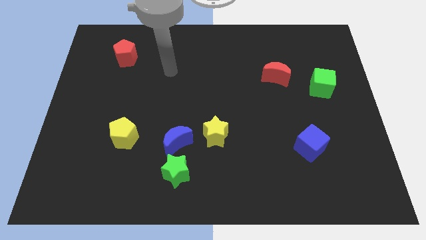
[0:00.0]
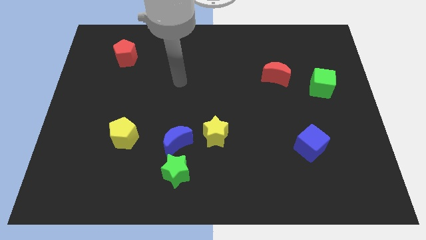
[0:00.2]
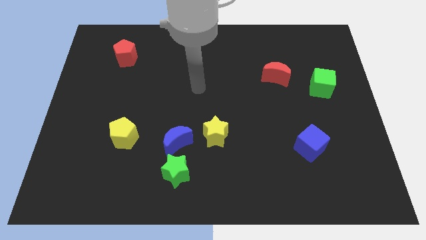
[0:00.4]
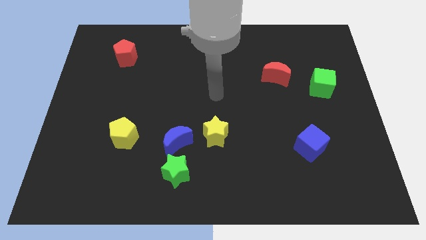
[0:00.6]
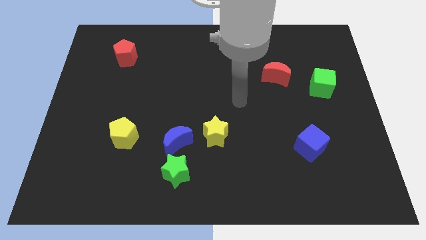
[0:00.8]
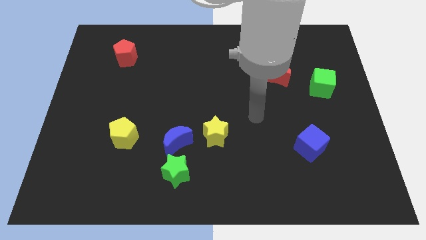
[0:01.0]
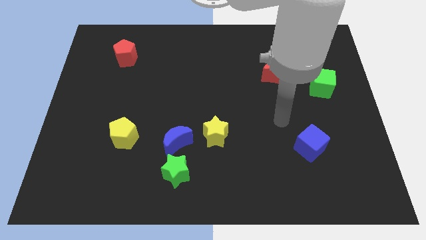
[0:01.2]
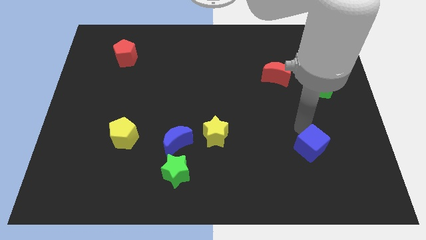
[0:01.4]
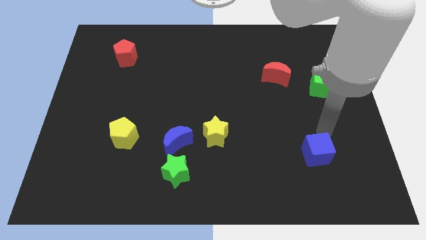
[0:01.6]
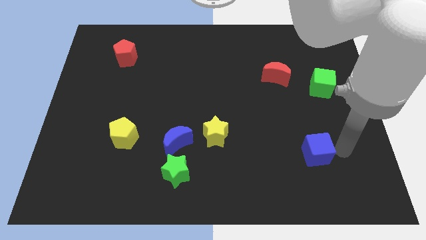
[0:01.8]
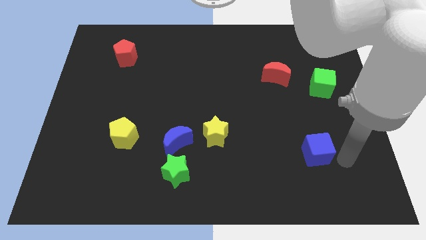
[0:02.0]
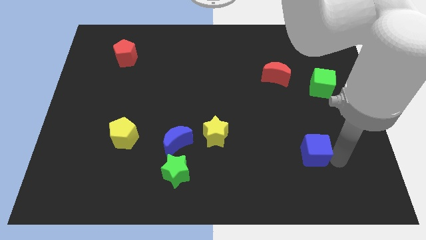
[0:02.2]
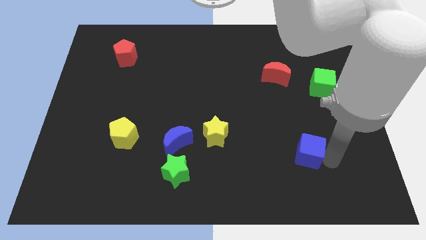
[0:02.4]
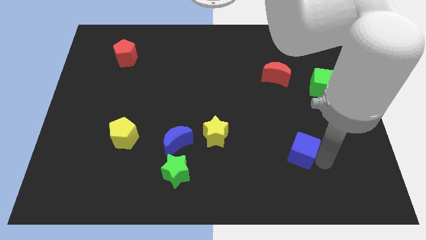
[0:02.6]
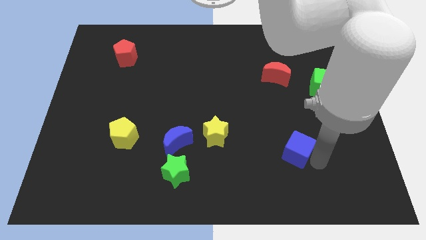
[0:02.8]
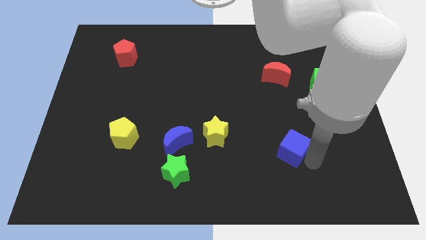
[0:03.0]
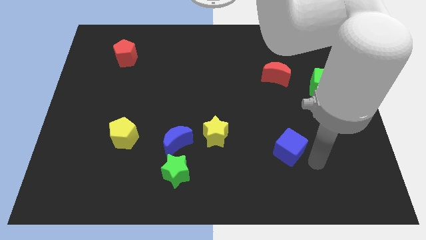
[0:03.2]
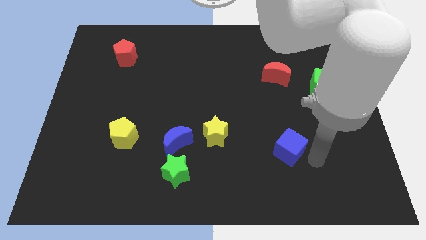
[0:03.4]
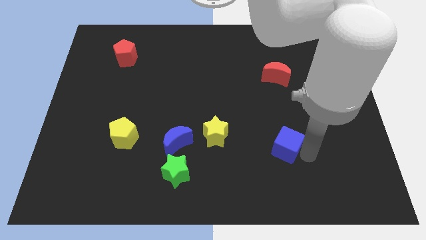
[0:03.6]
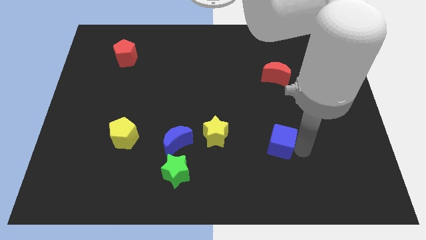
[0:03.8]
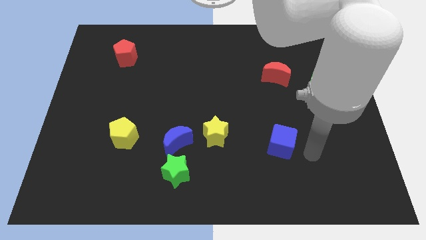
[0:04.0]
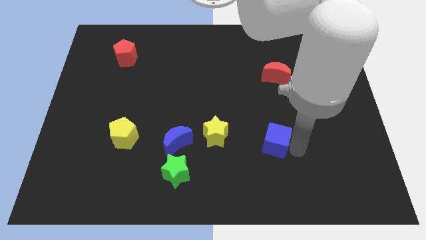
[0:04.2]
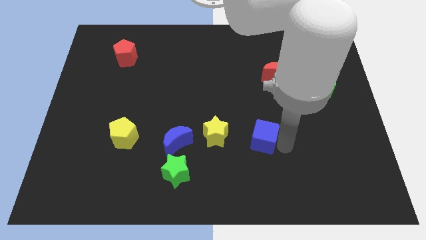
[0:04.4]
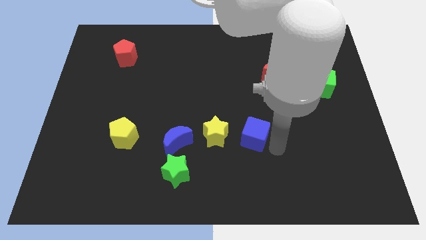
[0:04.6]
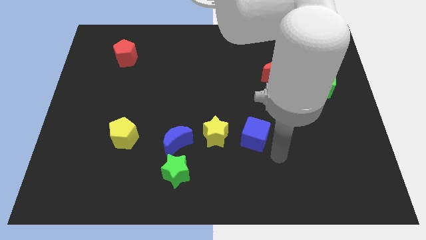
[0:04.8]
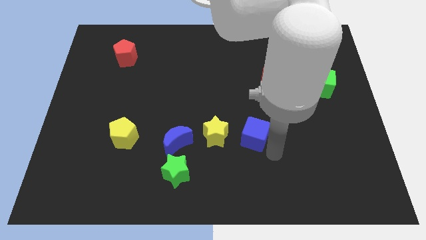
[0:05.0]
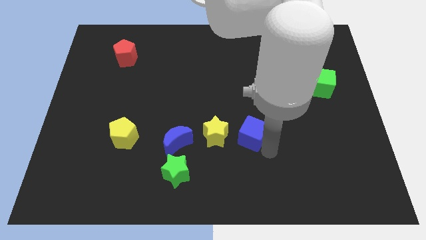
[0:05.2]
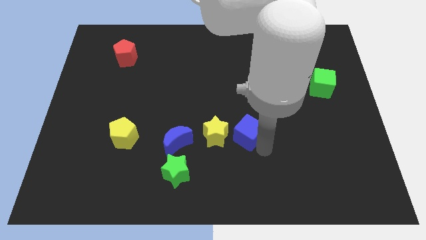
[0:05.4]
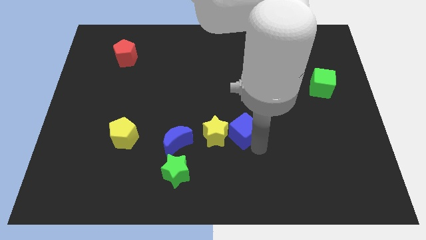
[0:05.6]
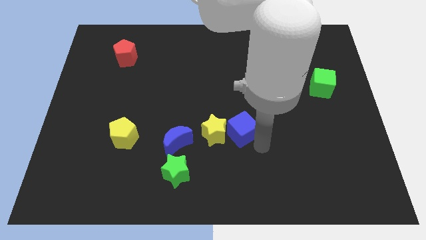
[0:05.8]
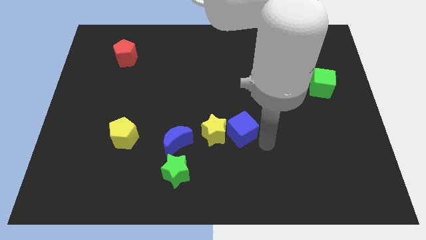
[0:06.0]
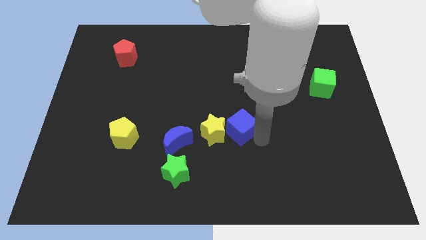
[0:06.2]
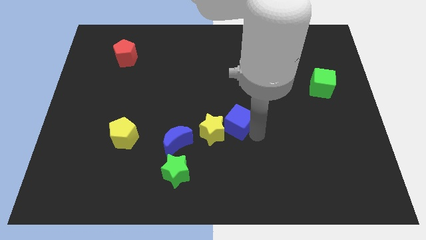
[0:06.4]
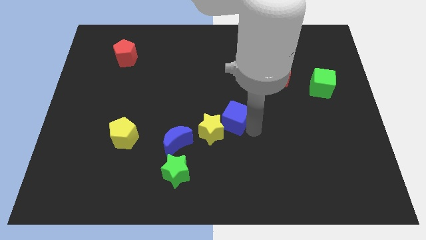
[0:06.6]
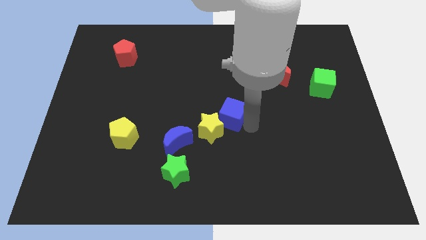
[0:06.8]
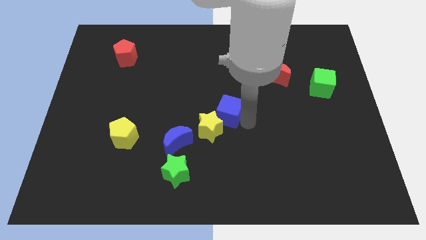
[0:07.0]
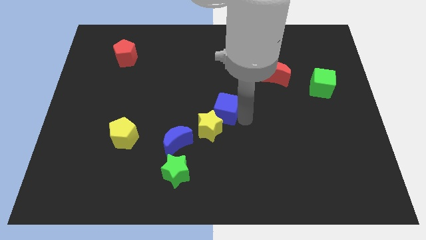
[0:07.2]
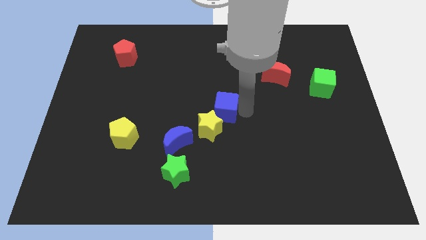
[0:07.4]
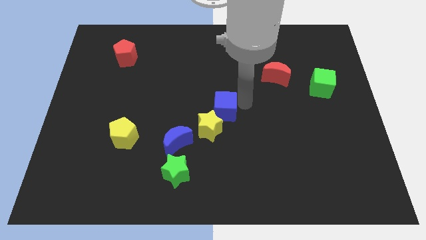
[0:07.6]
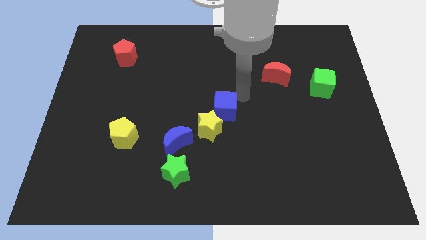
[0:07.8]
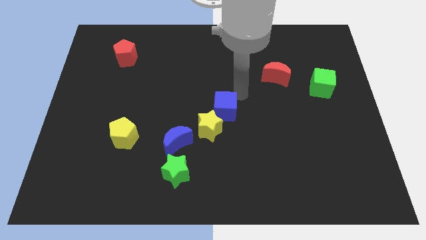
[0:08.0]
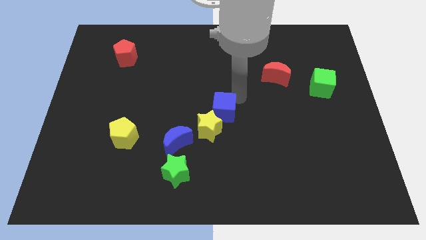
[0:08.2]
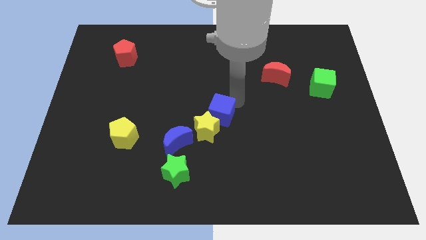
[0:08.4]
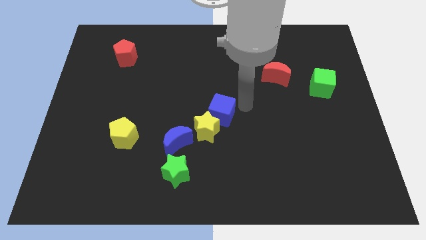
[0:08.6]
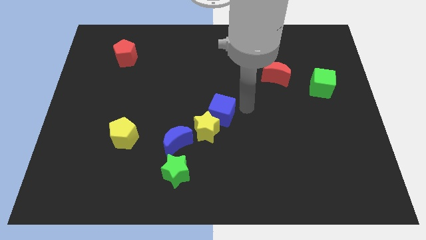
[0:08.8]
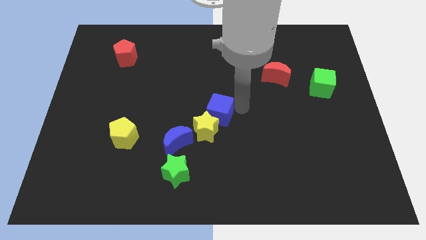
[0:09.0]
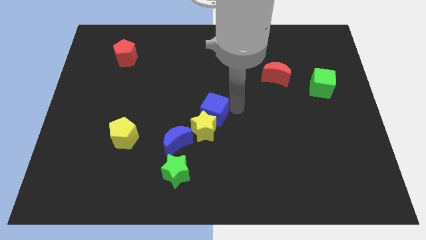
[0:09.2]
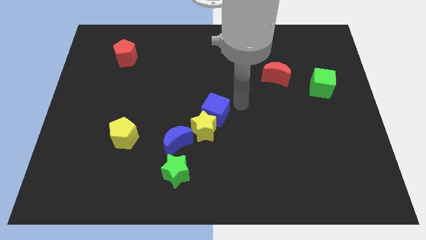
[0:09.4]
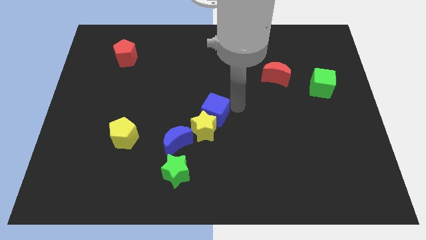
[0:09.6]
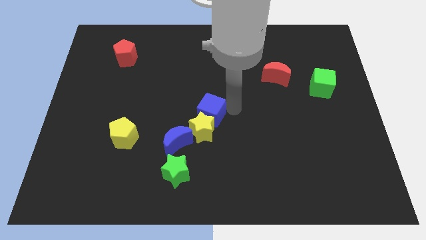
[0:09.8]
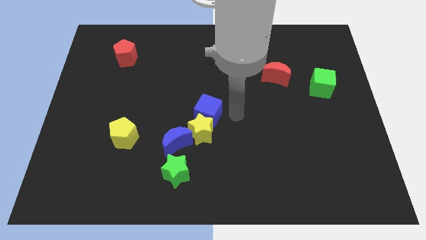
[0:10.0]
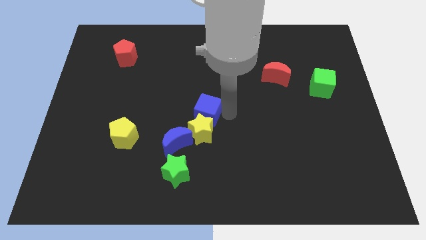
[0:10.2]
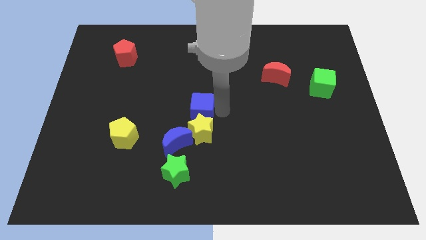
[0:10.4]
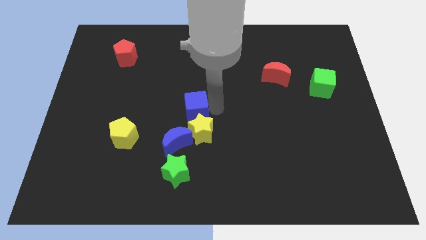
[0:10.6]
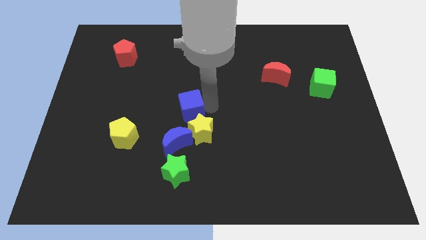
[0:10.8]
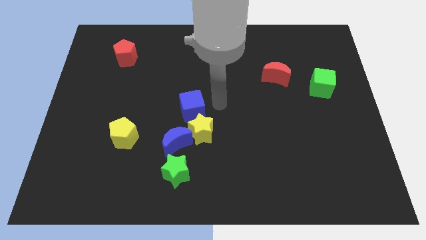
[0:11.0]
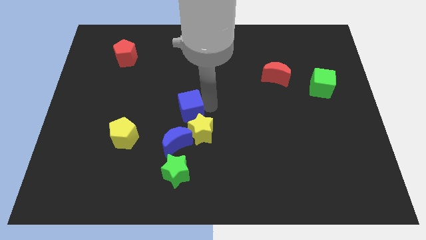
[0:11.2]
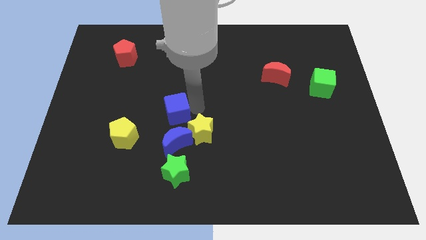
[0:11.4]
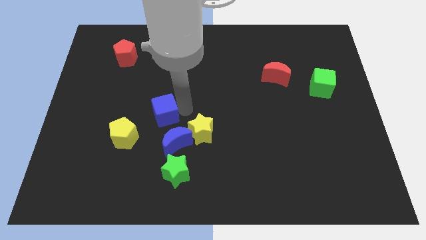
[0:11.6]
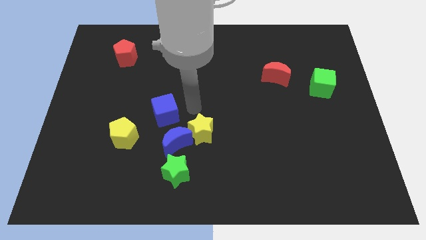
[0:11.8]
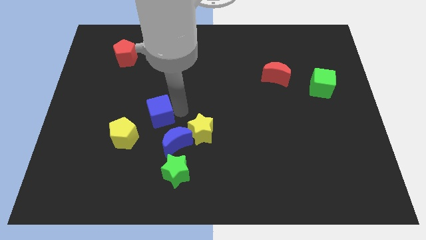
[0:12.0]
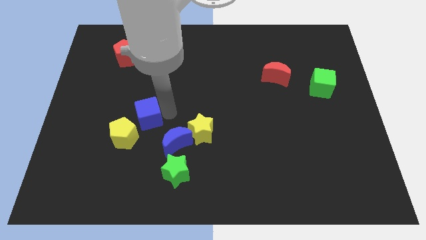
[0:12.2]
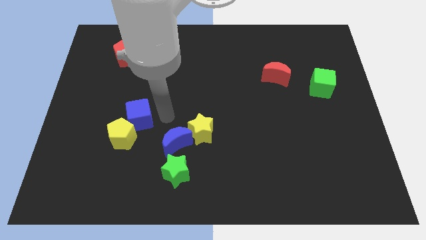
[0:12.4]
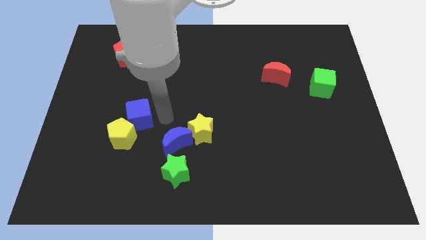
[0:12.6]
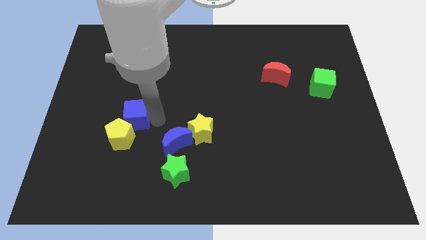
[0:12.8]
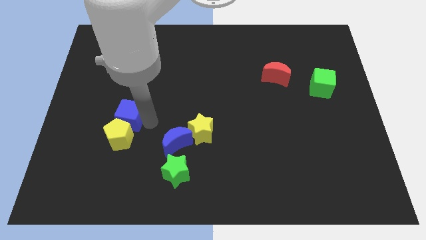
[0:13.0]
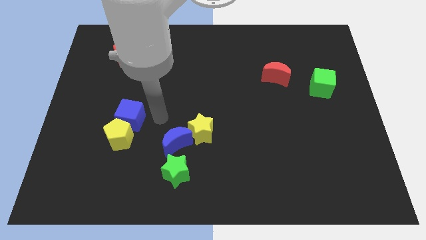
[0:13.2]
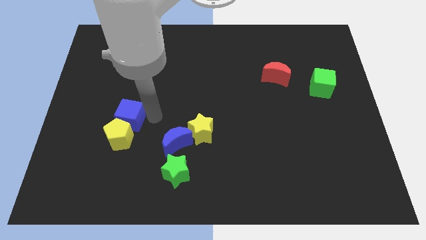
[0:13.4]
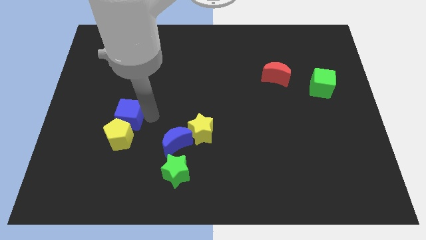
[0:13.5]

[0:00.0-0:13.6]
move the blue cube to the top left side of the yellow pentagon

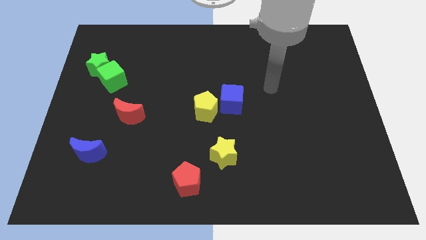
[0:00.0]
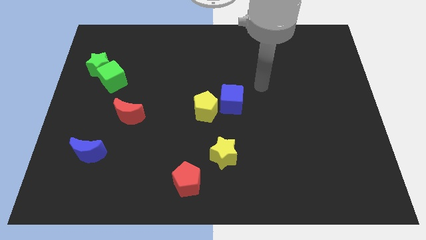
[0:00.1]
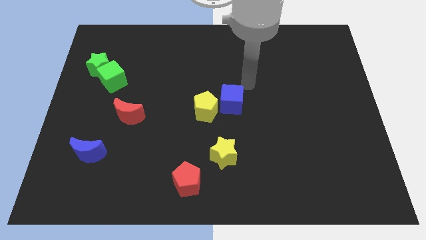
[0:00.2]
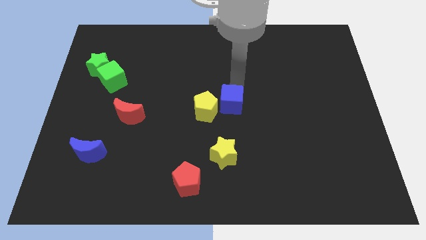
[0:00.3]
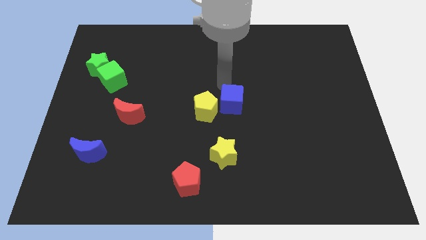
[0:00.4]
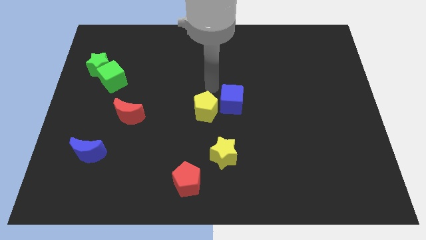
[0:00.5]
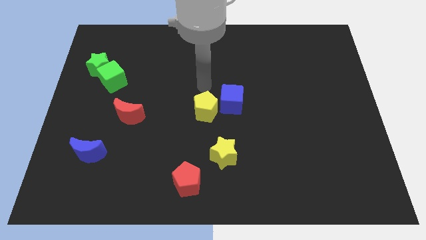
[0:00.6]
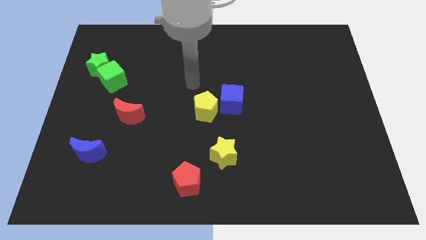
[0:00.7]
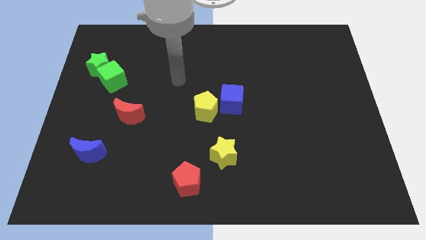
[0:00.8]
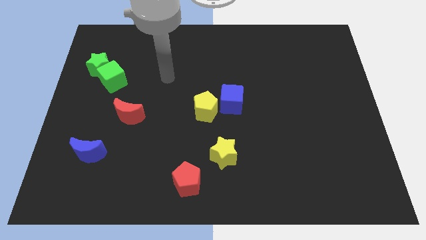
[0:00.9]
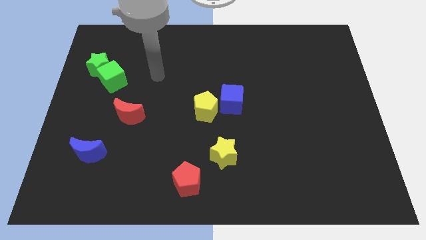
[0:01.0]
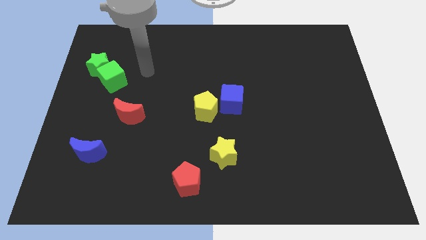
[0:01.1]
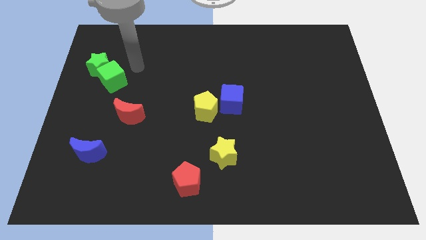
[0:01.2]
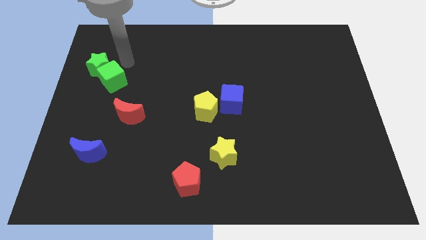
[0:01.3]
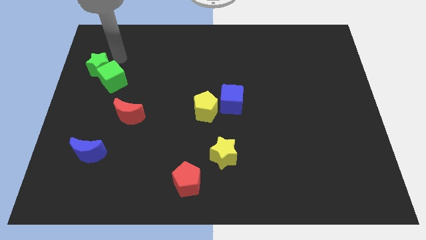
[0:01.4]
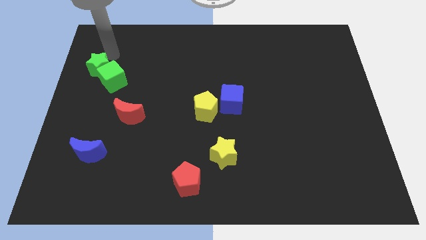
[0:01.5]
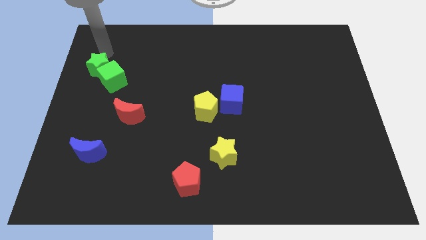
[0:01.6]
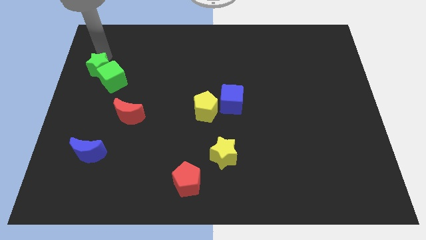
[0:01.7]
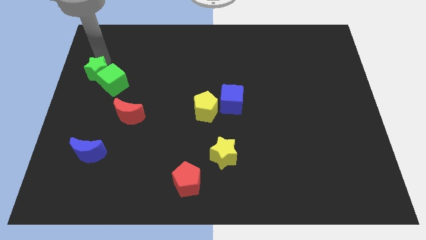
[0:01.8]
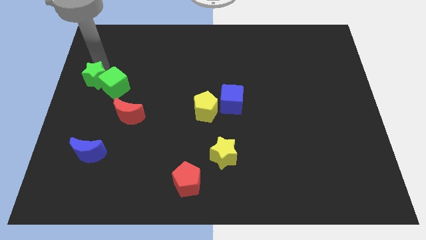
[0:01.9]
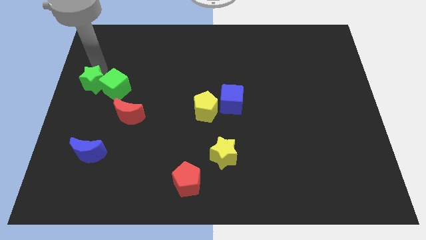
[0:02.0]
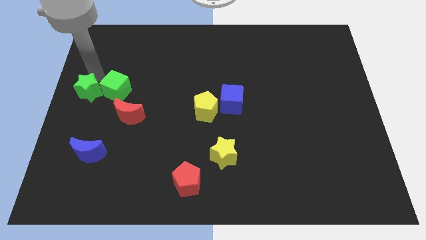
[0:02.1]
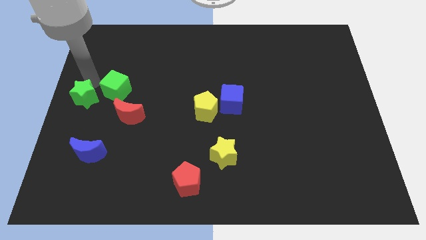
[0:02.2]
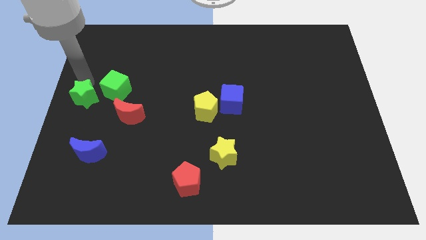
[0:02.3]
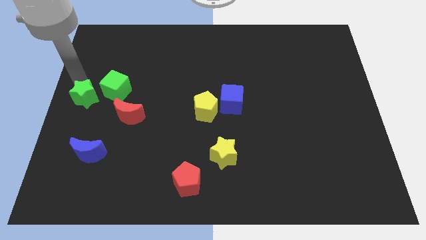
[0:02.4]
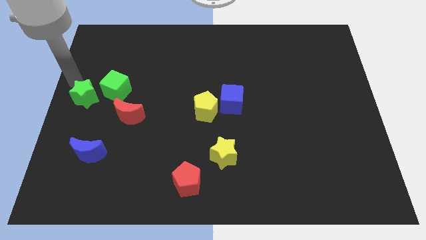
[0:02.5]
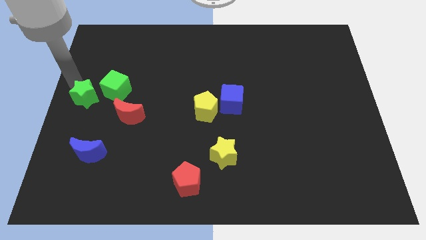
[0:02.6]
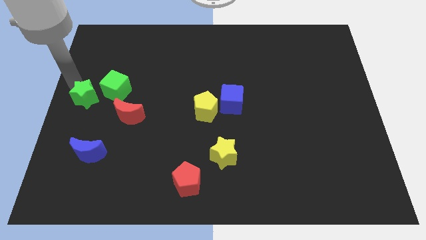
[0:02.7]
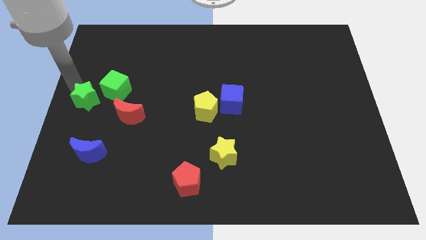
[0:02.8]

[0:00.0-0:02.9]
push the green star above the blue moon
